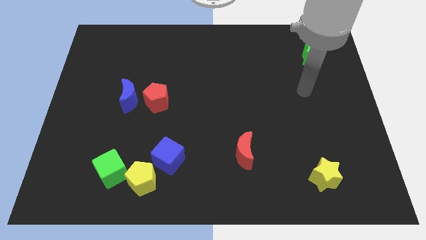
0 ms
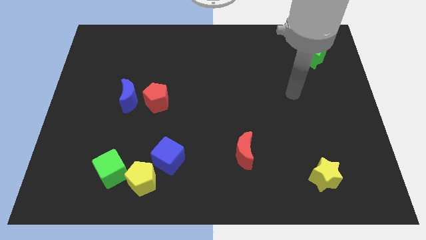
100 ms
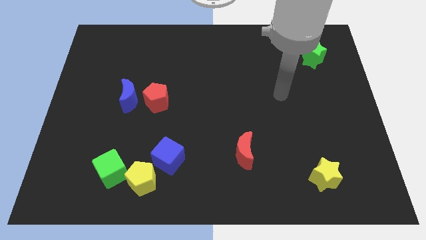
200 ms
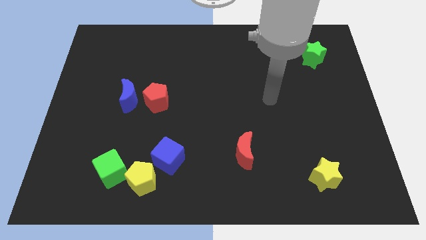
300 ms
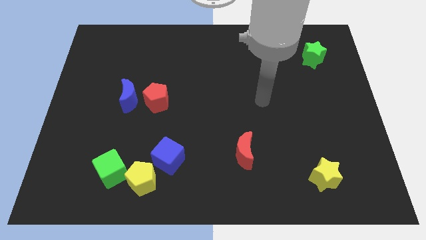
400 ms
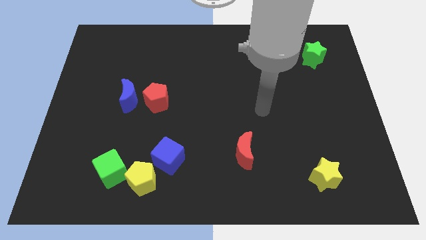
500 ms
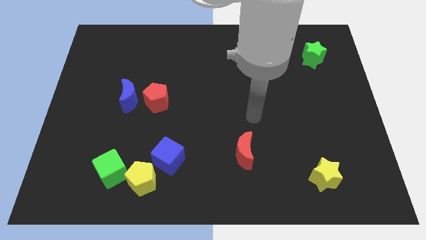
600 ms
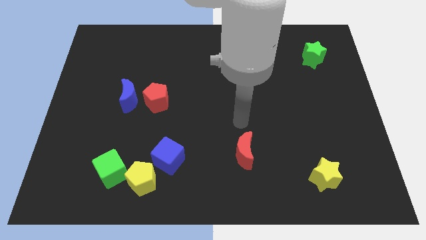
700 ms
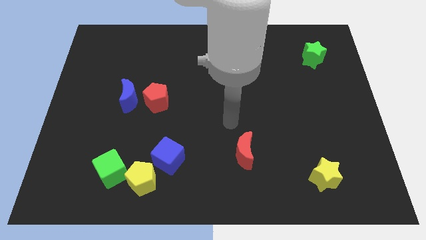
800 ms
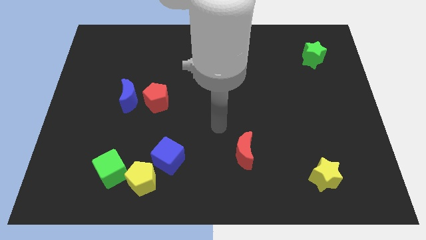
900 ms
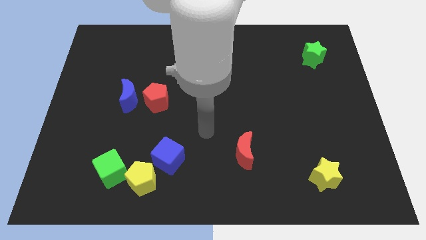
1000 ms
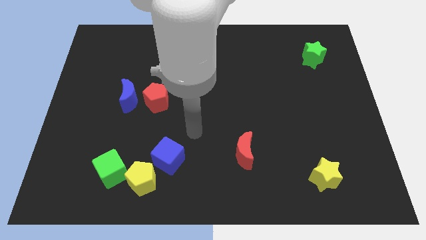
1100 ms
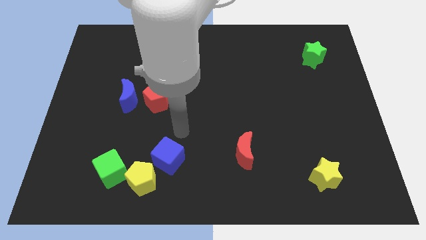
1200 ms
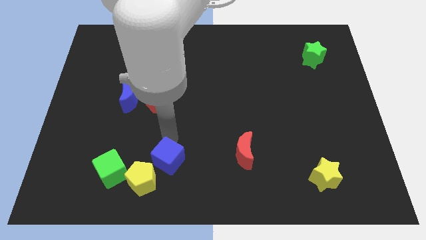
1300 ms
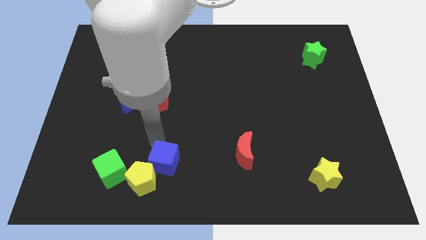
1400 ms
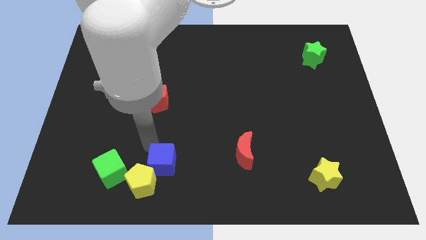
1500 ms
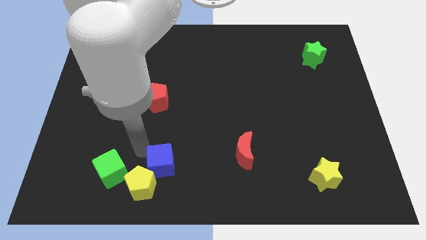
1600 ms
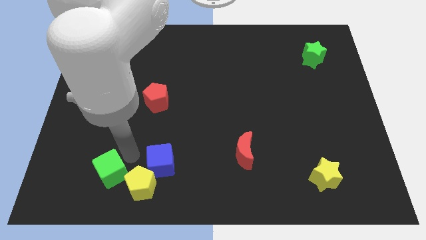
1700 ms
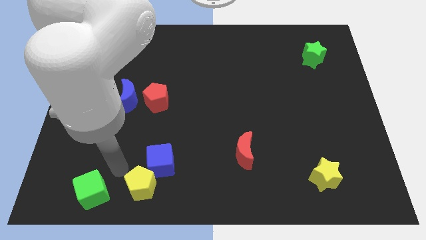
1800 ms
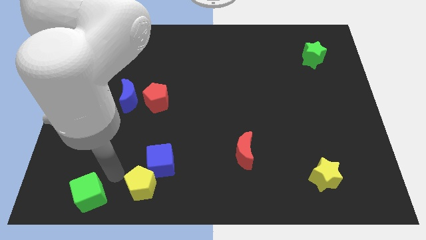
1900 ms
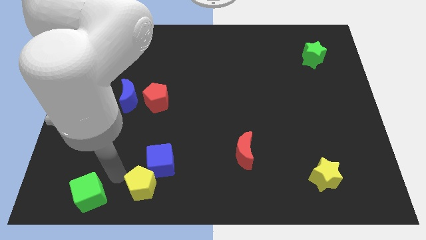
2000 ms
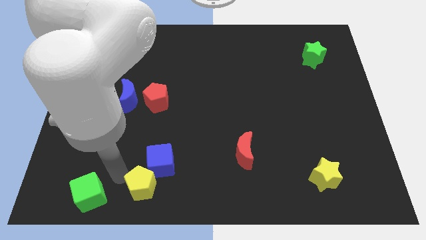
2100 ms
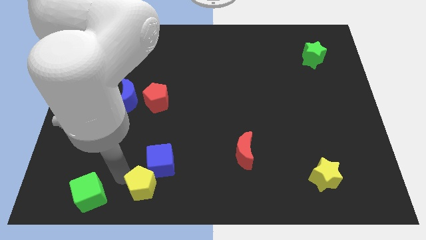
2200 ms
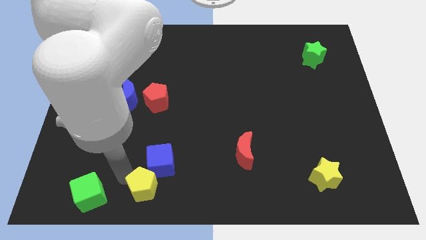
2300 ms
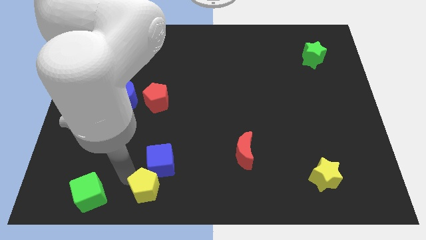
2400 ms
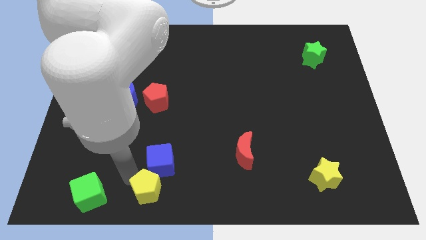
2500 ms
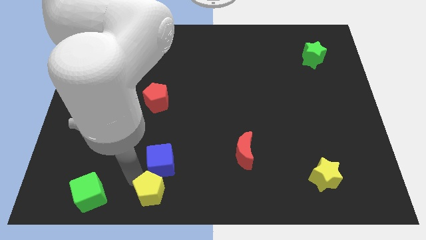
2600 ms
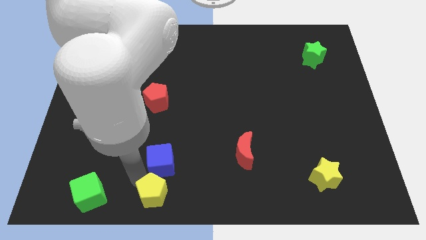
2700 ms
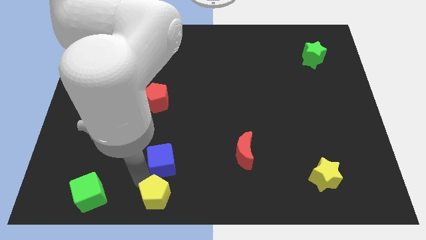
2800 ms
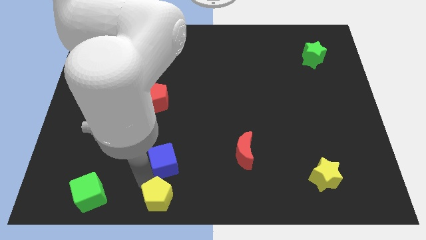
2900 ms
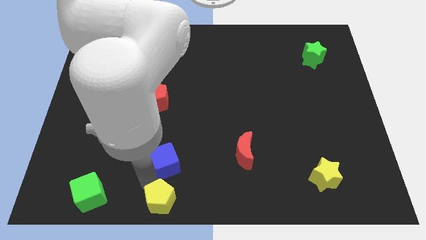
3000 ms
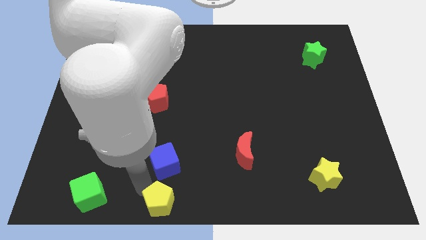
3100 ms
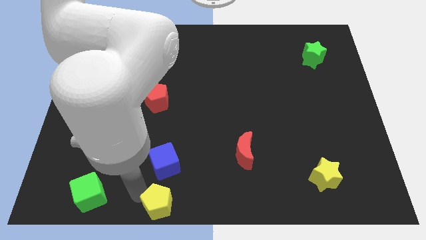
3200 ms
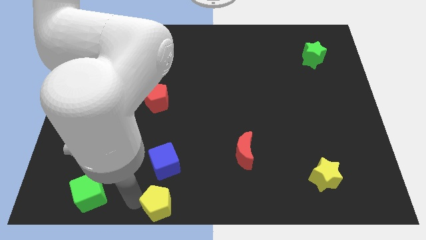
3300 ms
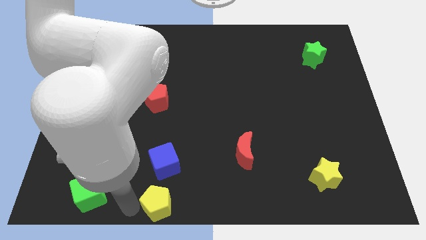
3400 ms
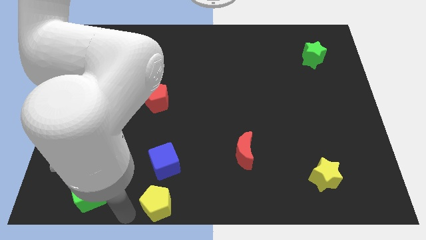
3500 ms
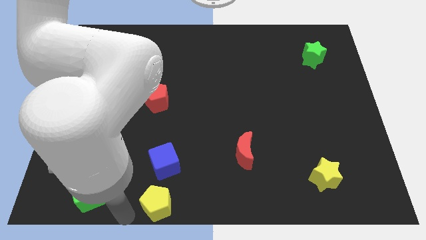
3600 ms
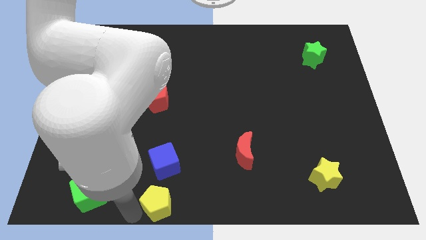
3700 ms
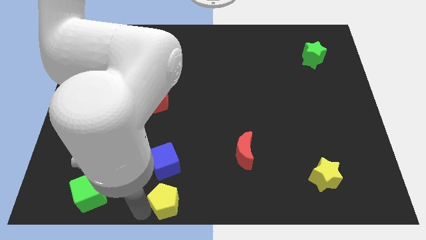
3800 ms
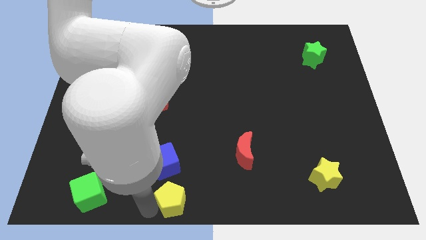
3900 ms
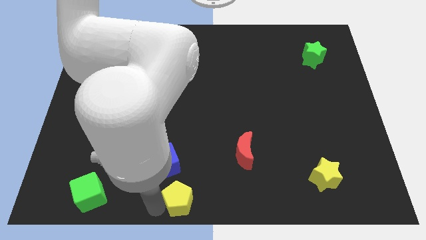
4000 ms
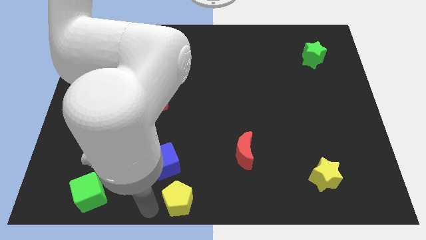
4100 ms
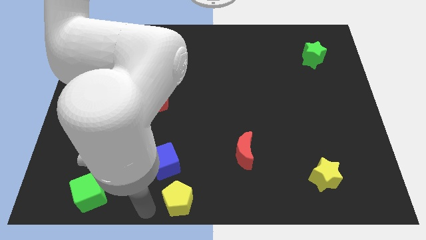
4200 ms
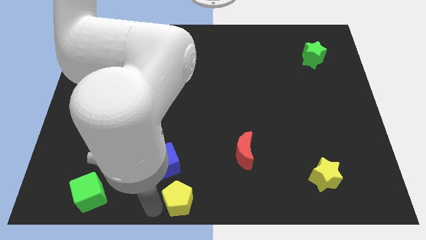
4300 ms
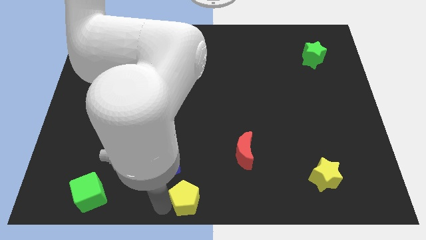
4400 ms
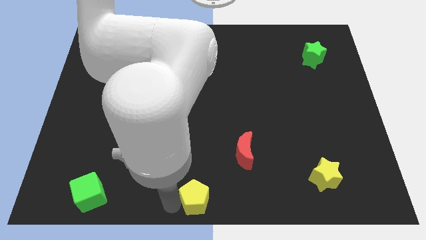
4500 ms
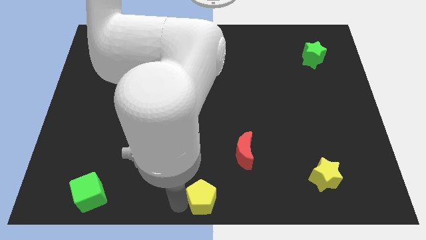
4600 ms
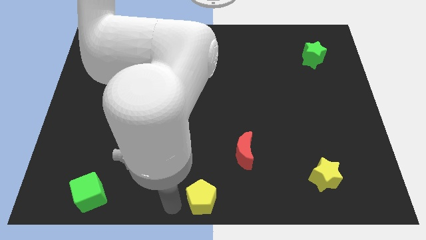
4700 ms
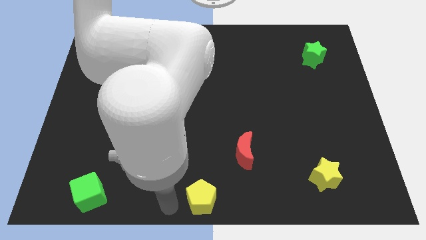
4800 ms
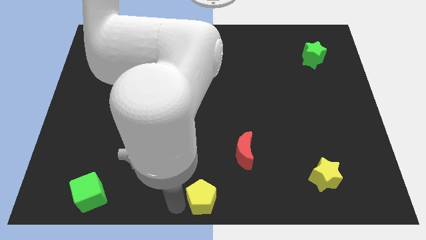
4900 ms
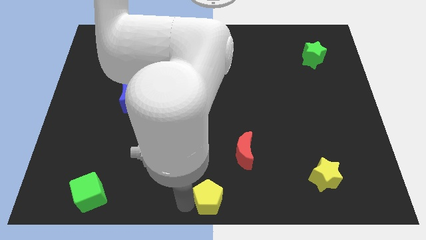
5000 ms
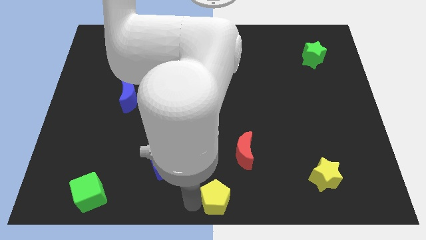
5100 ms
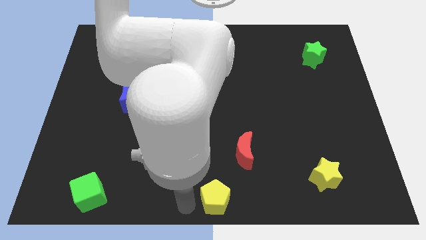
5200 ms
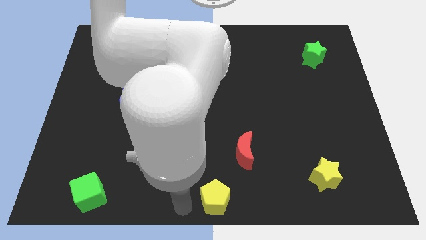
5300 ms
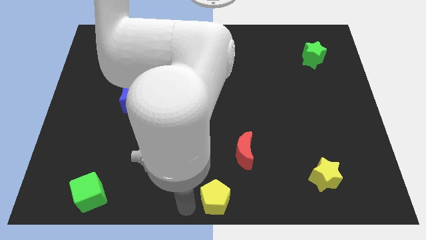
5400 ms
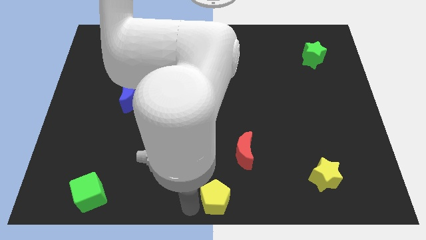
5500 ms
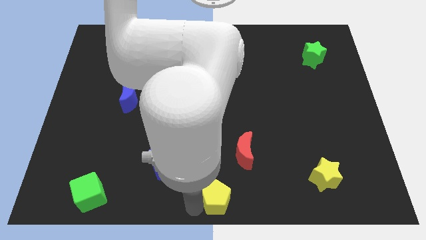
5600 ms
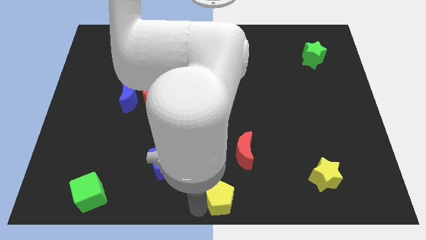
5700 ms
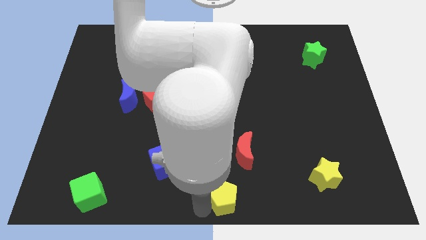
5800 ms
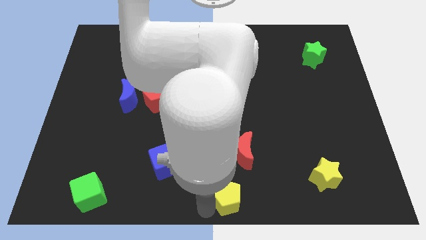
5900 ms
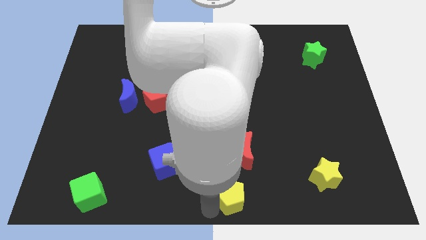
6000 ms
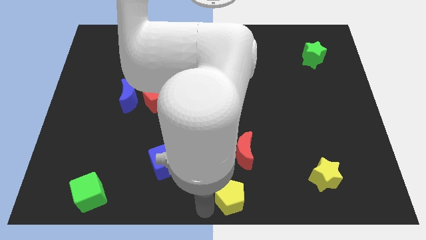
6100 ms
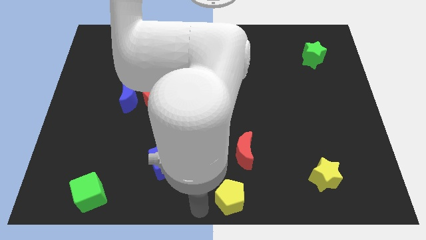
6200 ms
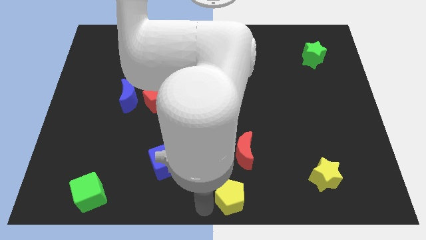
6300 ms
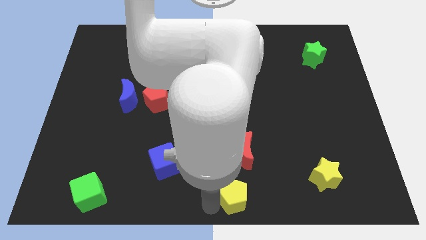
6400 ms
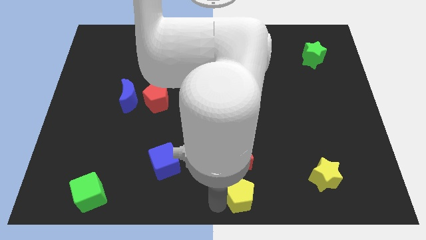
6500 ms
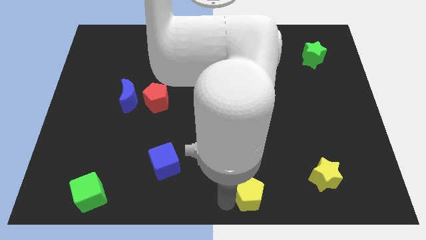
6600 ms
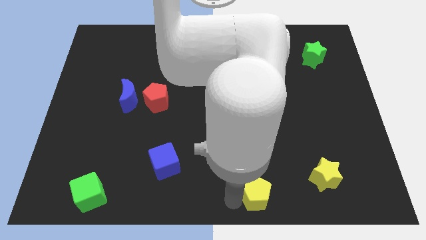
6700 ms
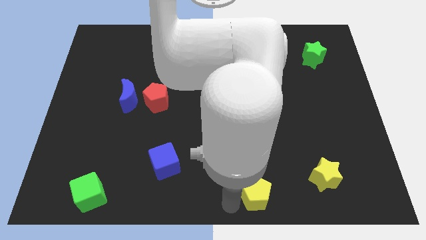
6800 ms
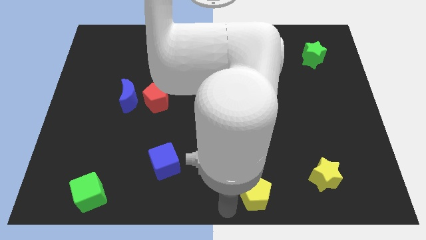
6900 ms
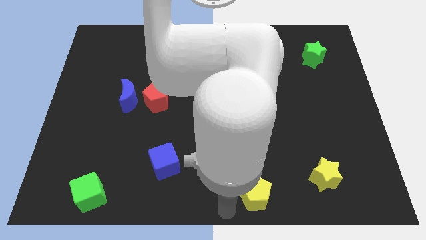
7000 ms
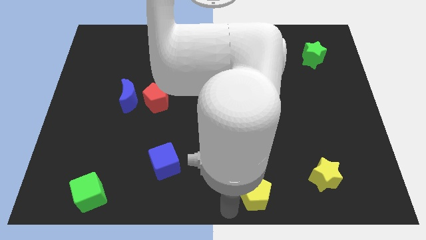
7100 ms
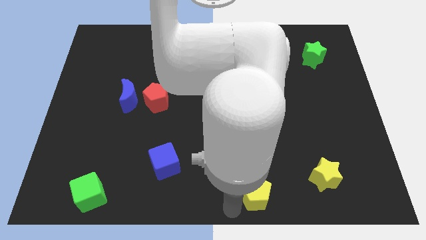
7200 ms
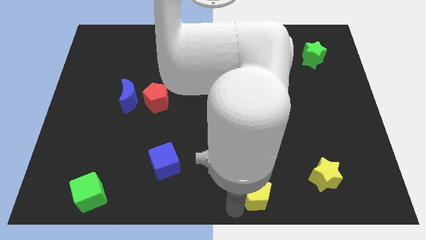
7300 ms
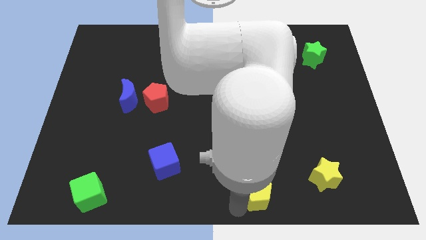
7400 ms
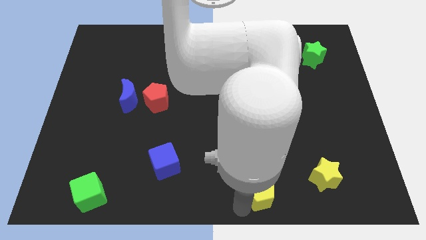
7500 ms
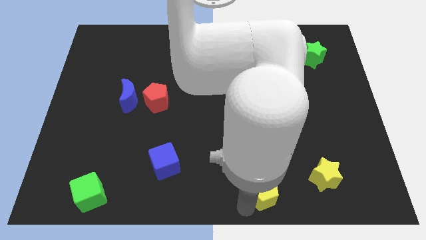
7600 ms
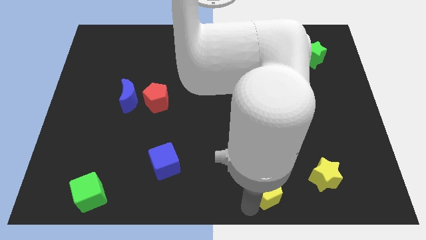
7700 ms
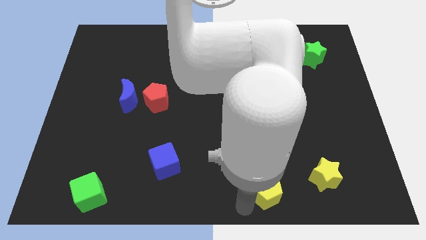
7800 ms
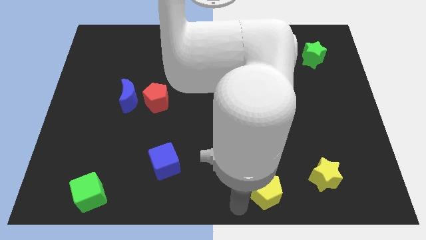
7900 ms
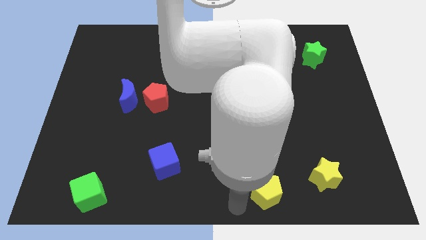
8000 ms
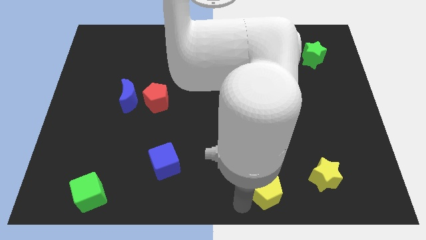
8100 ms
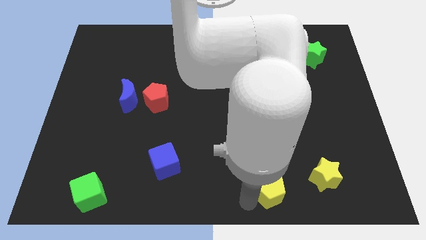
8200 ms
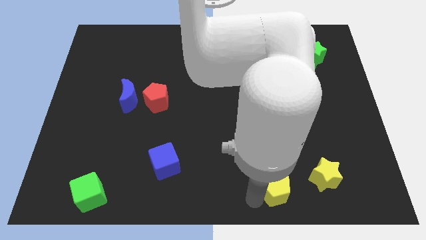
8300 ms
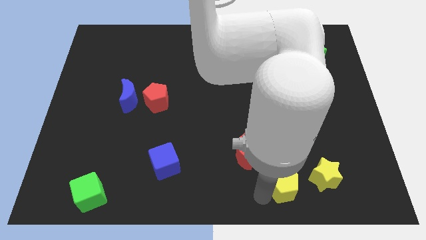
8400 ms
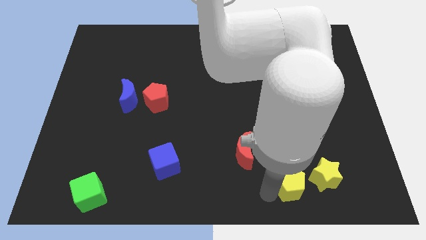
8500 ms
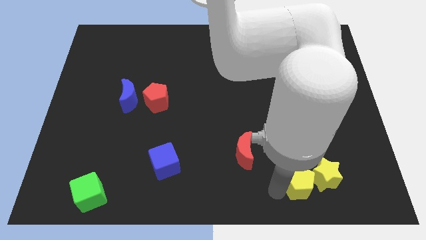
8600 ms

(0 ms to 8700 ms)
move the yellow pentagon towards the yellow star
